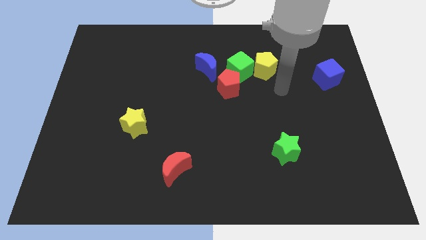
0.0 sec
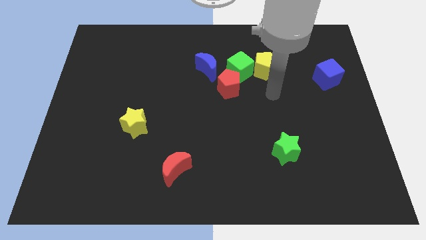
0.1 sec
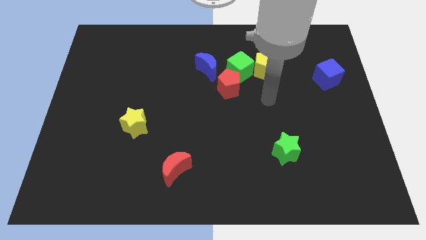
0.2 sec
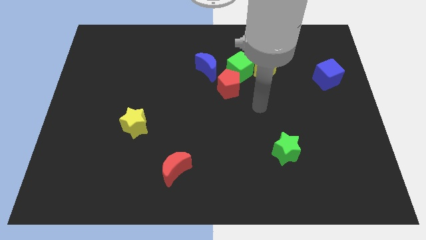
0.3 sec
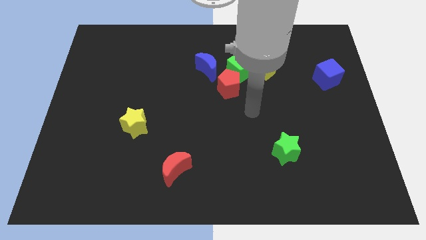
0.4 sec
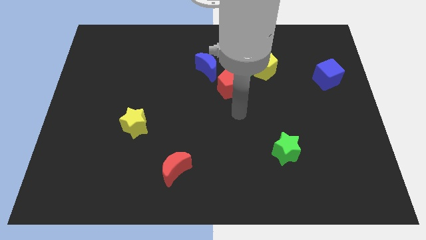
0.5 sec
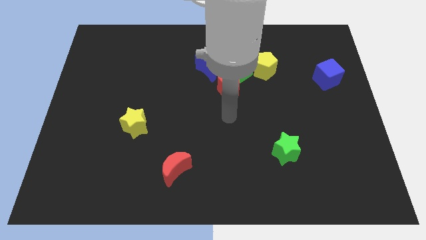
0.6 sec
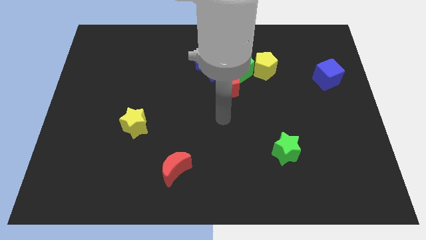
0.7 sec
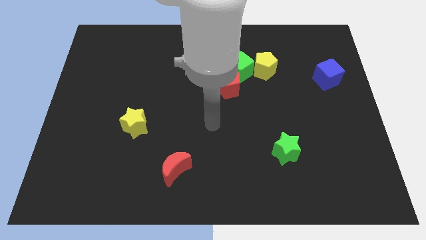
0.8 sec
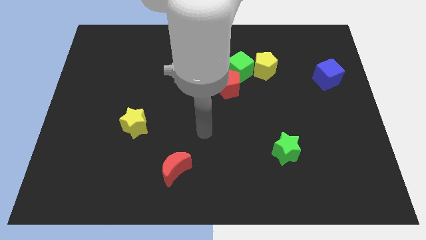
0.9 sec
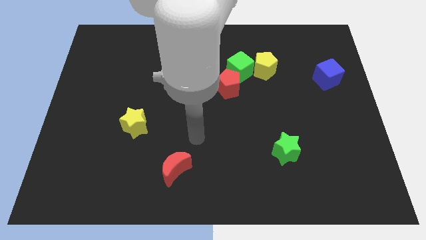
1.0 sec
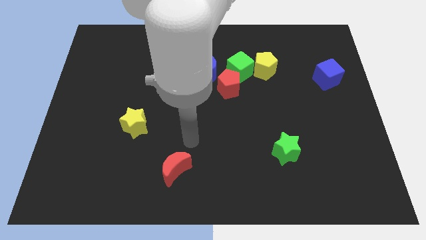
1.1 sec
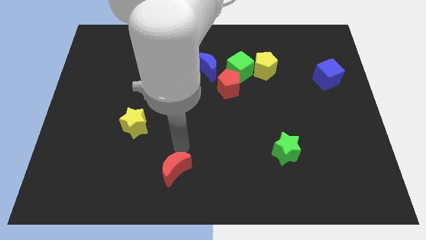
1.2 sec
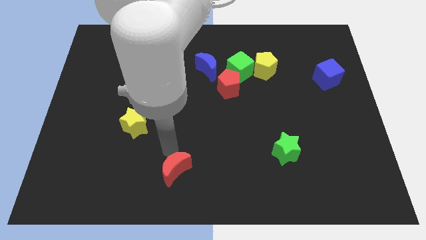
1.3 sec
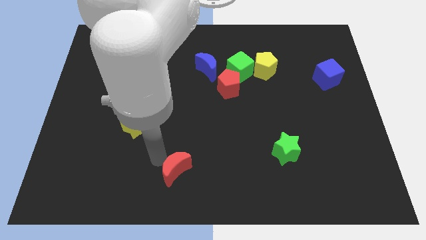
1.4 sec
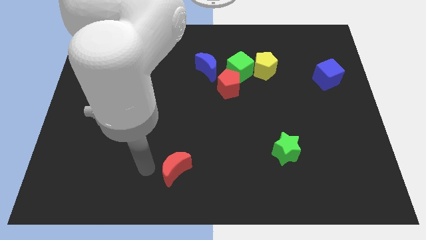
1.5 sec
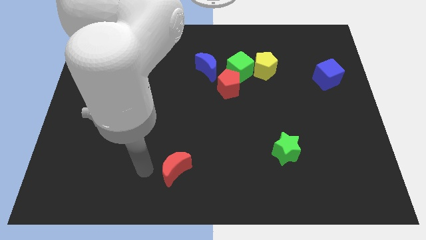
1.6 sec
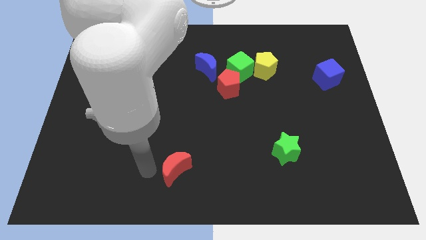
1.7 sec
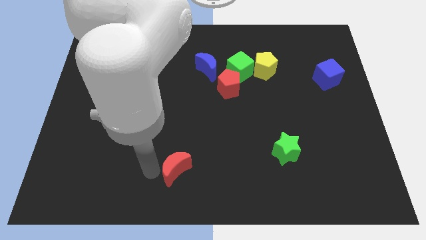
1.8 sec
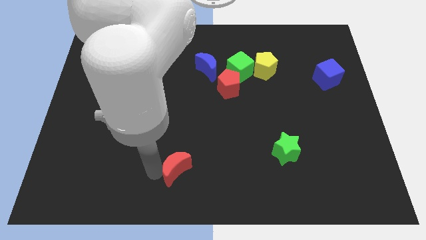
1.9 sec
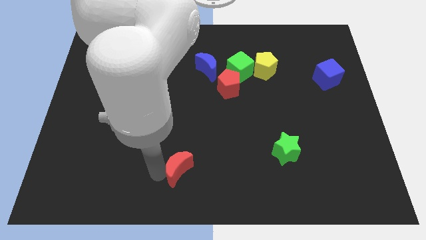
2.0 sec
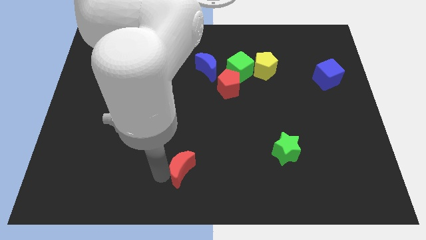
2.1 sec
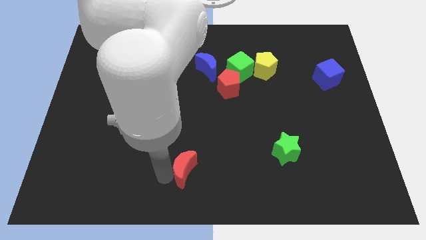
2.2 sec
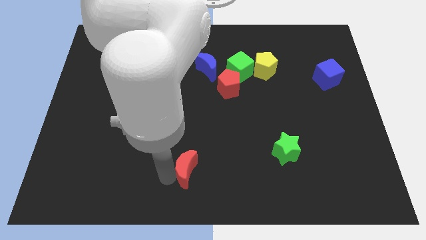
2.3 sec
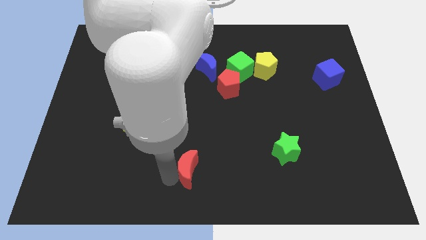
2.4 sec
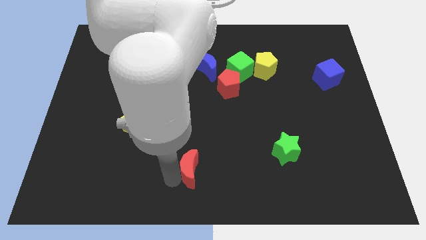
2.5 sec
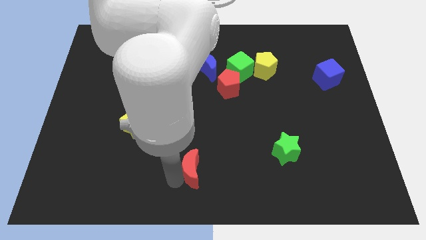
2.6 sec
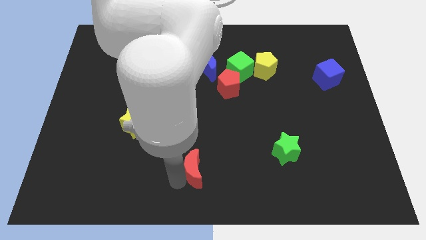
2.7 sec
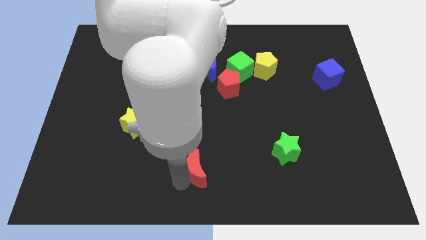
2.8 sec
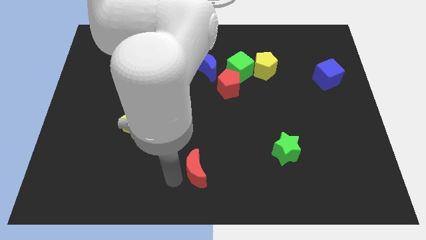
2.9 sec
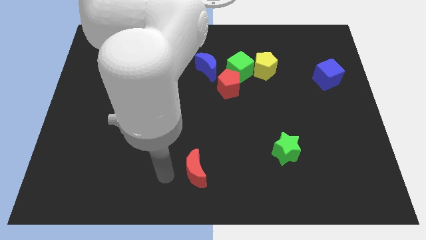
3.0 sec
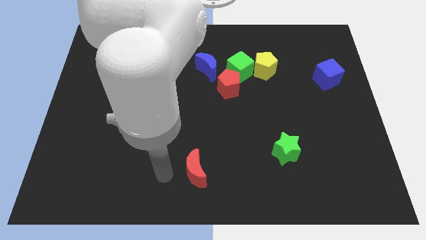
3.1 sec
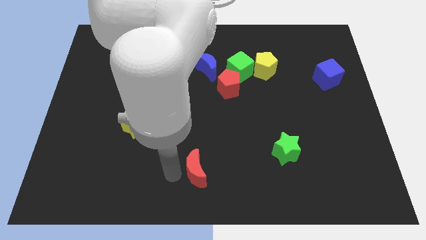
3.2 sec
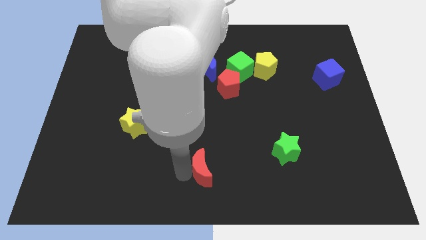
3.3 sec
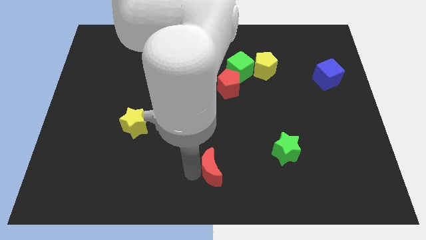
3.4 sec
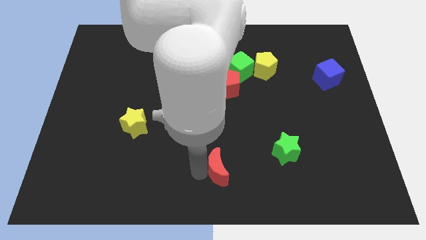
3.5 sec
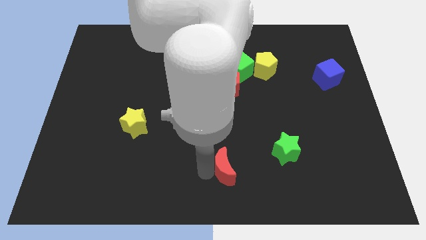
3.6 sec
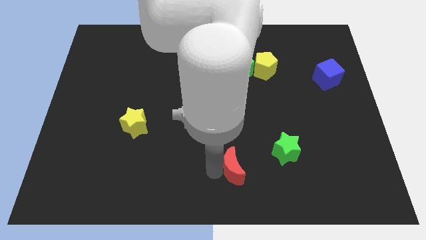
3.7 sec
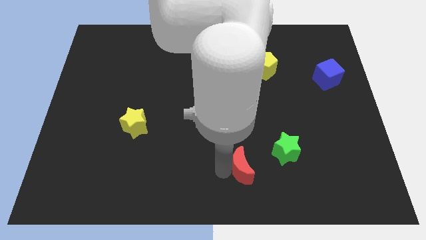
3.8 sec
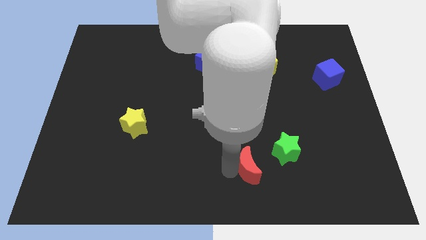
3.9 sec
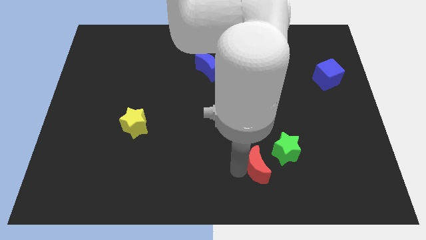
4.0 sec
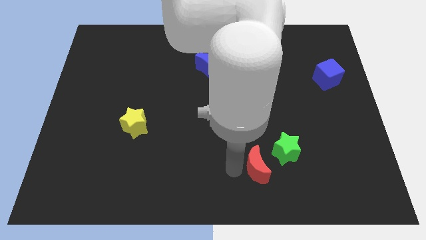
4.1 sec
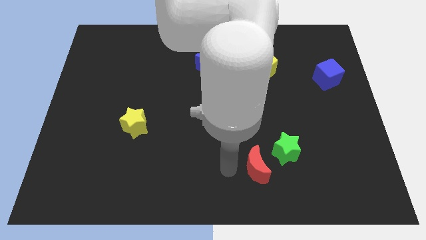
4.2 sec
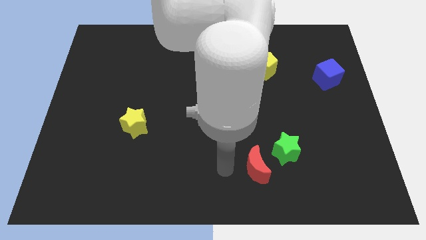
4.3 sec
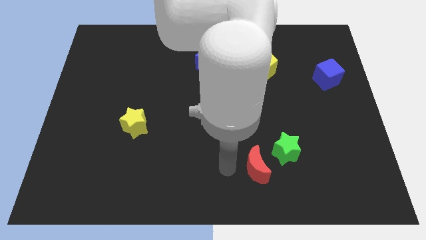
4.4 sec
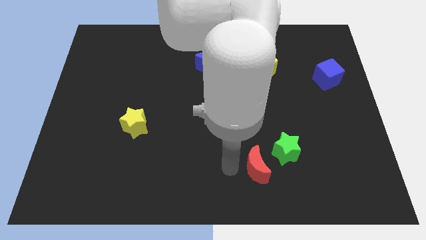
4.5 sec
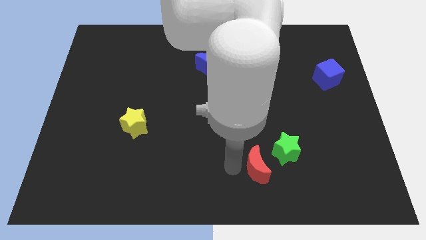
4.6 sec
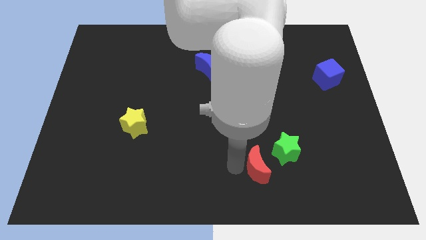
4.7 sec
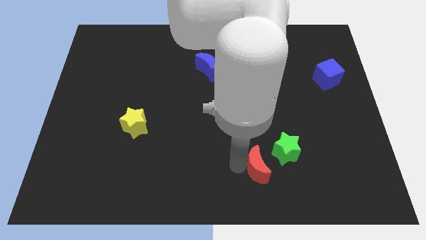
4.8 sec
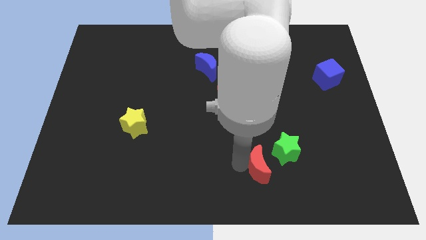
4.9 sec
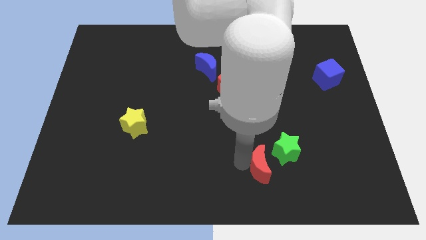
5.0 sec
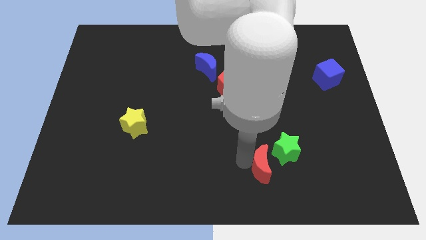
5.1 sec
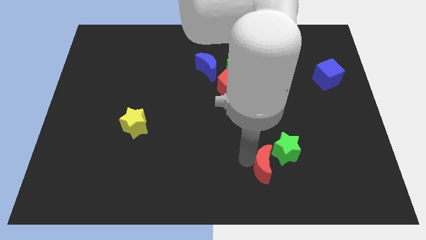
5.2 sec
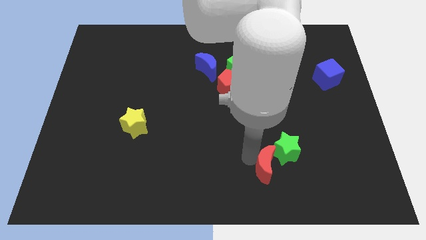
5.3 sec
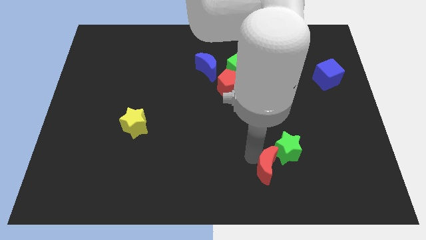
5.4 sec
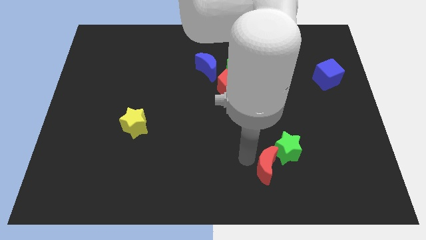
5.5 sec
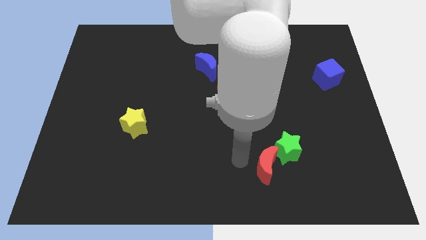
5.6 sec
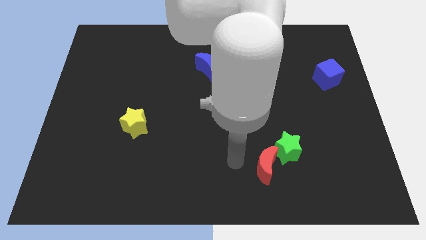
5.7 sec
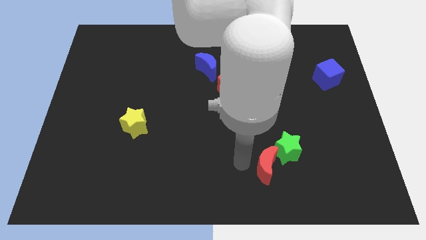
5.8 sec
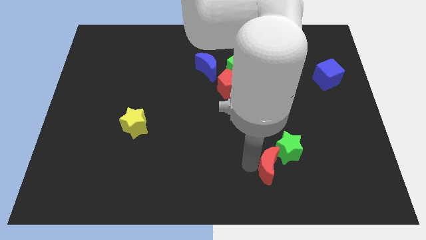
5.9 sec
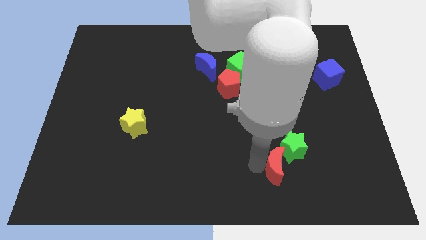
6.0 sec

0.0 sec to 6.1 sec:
slide the red moon to the right

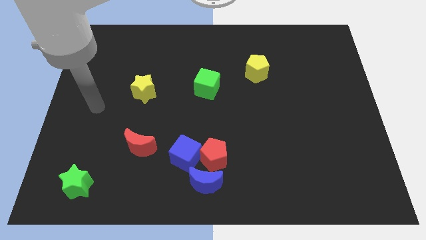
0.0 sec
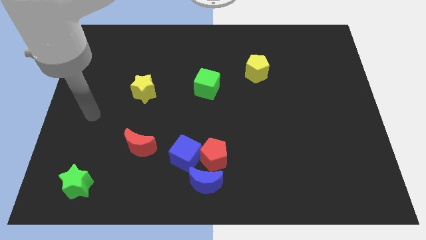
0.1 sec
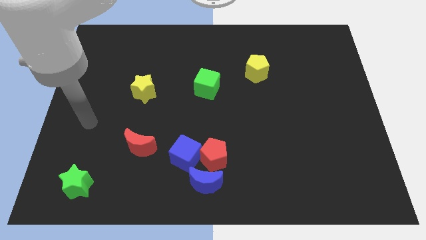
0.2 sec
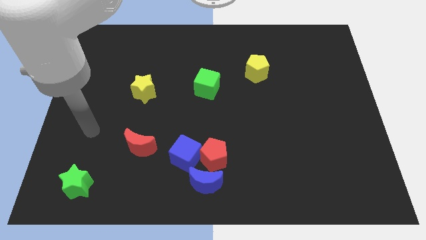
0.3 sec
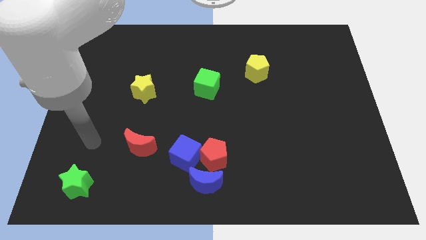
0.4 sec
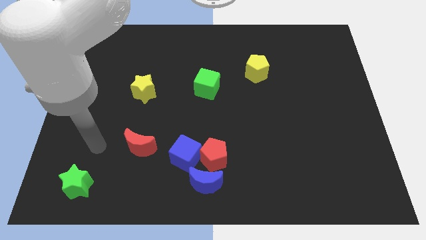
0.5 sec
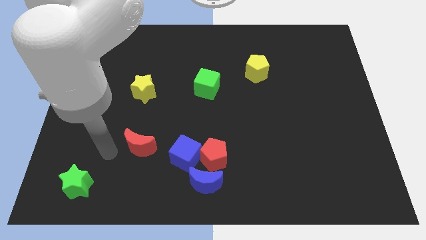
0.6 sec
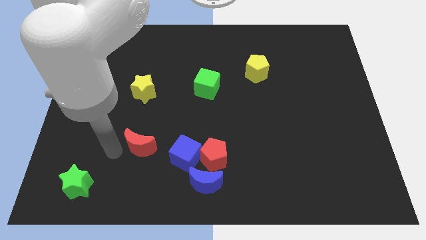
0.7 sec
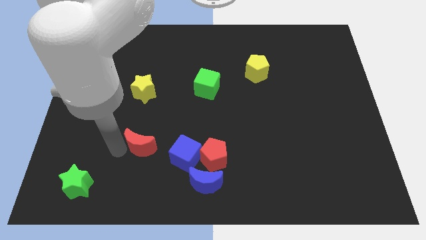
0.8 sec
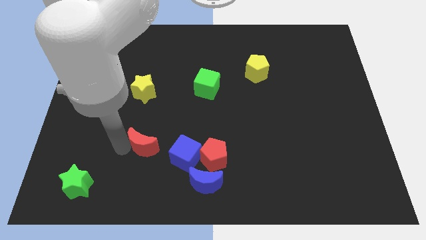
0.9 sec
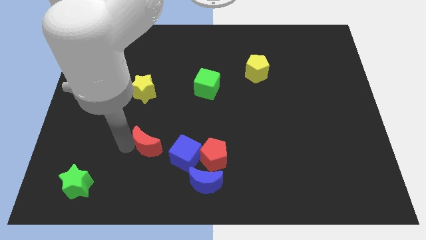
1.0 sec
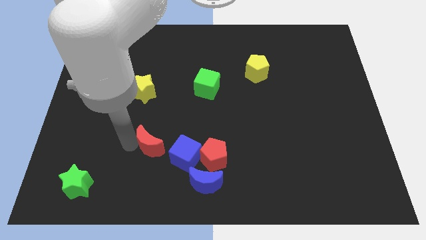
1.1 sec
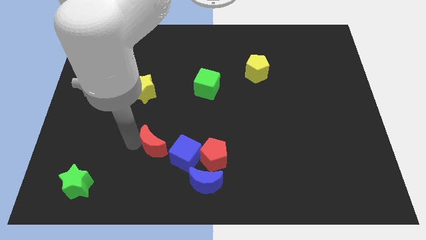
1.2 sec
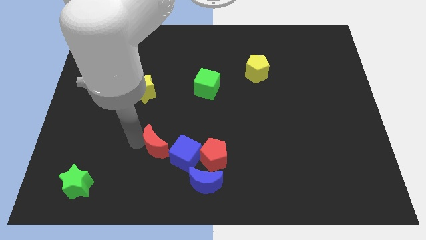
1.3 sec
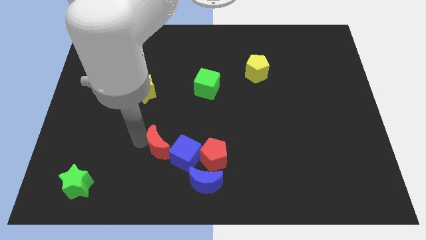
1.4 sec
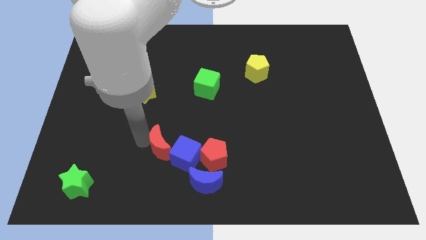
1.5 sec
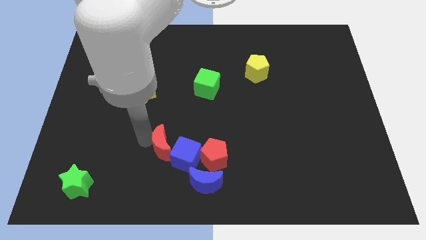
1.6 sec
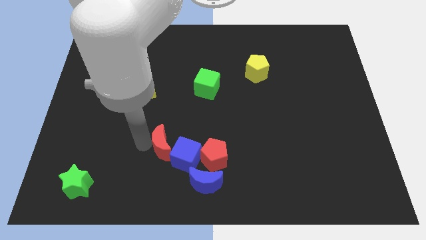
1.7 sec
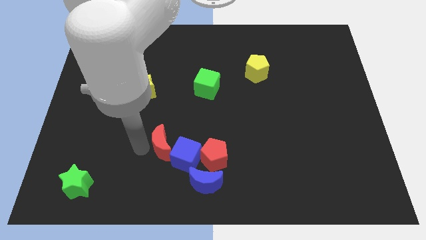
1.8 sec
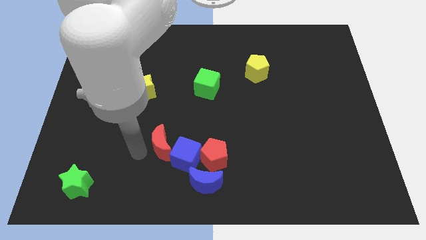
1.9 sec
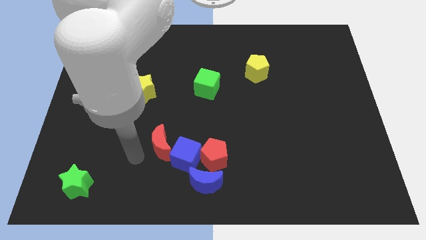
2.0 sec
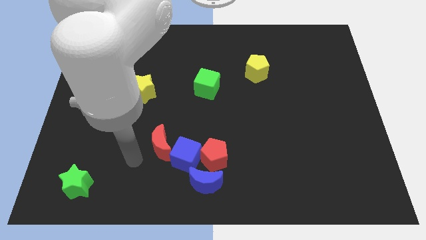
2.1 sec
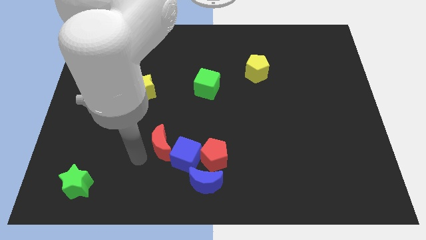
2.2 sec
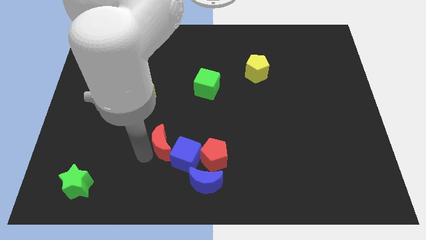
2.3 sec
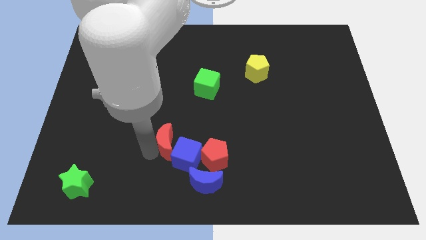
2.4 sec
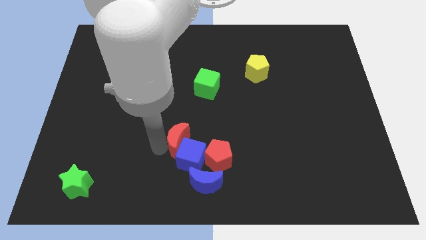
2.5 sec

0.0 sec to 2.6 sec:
slide the red moon to the right a little bit
